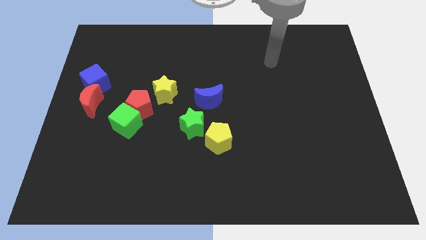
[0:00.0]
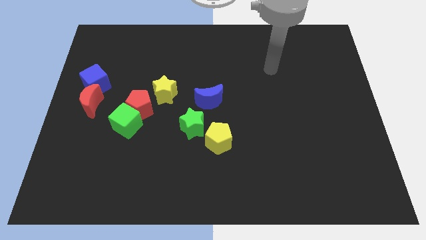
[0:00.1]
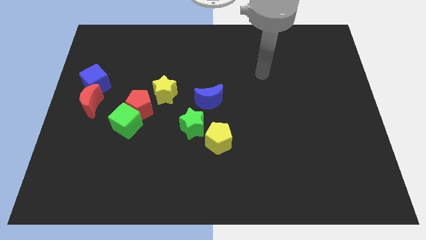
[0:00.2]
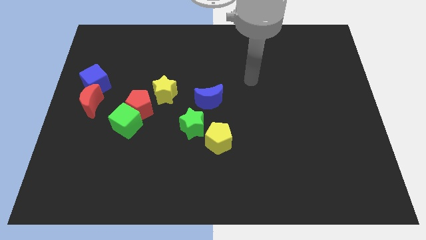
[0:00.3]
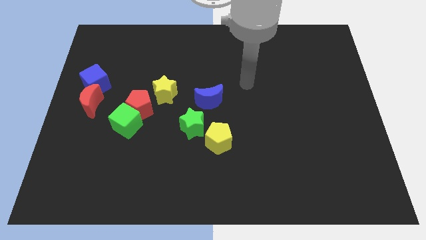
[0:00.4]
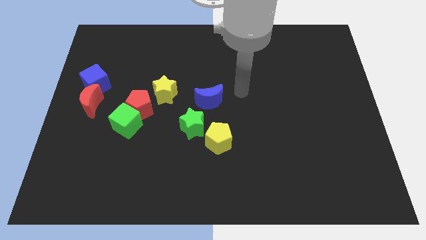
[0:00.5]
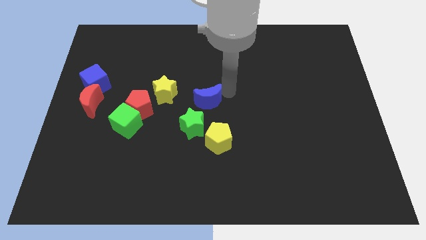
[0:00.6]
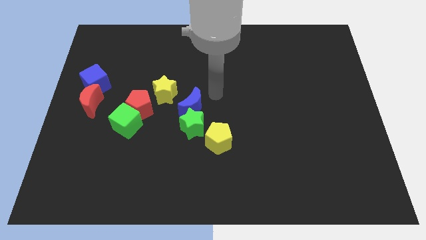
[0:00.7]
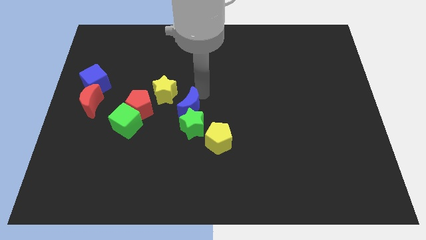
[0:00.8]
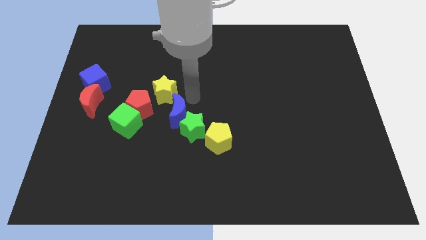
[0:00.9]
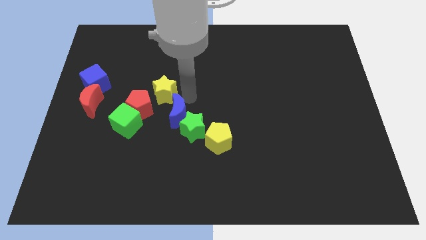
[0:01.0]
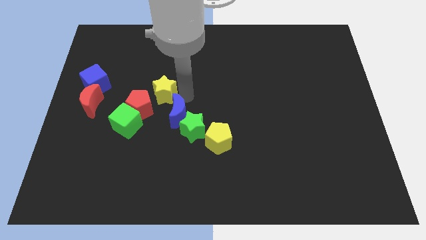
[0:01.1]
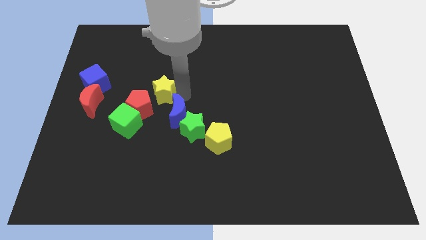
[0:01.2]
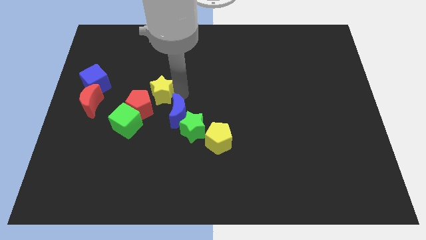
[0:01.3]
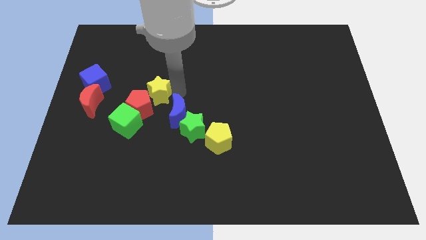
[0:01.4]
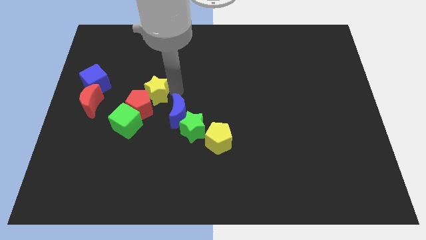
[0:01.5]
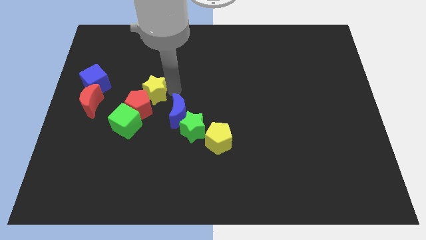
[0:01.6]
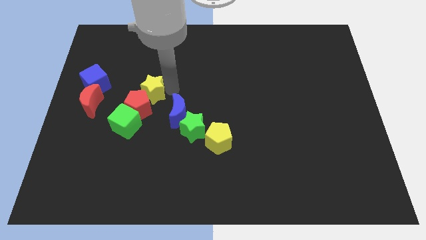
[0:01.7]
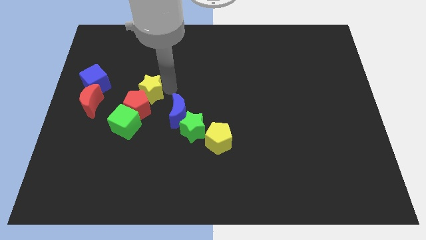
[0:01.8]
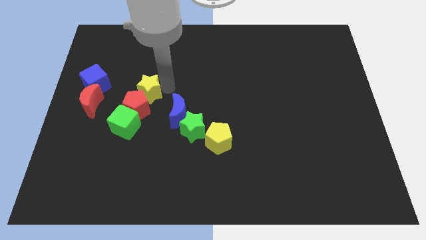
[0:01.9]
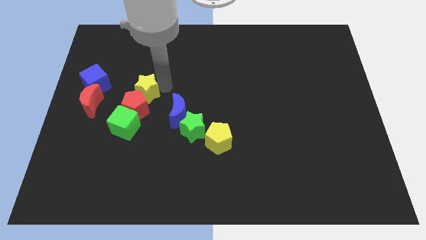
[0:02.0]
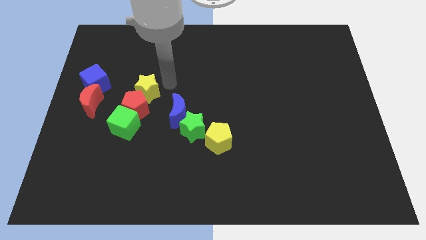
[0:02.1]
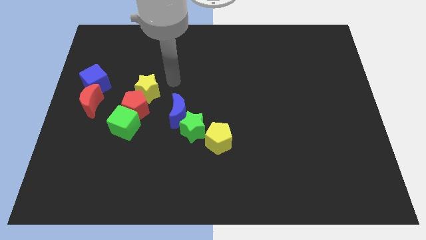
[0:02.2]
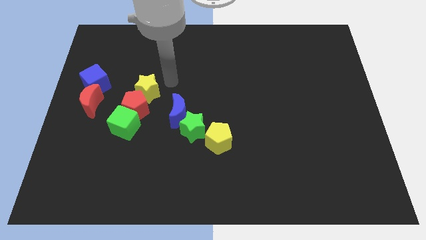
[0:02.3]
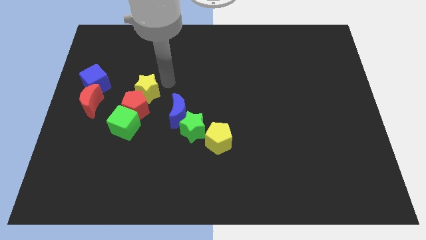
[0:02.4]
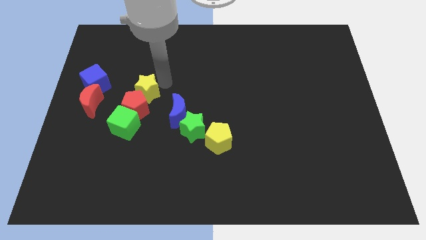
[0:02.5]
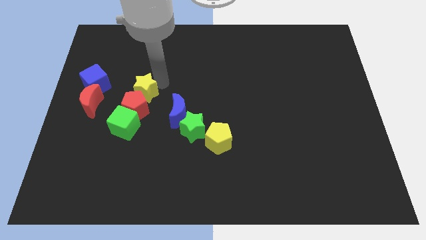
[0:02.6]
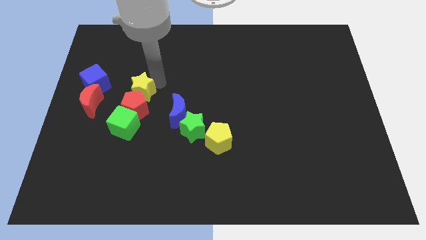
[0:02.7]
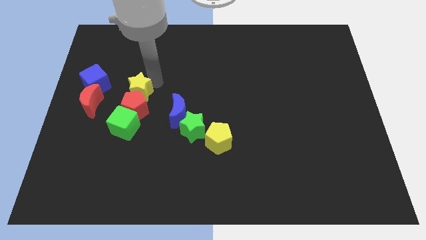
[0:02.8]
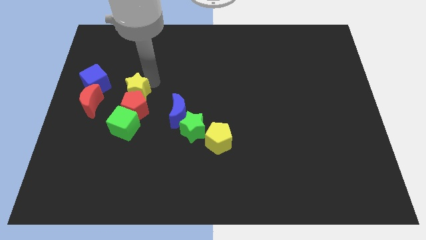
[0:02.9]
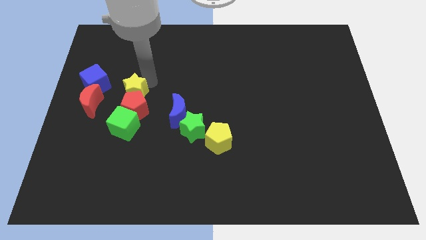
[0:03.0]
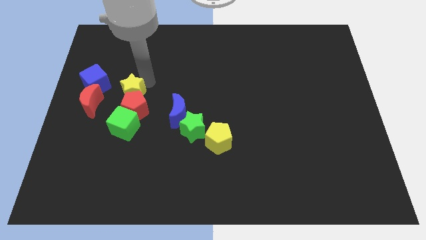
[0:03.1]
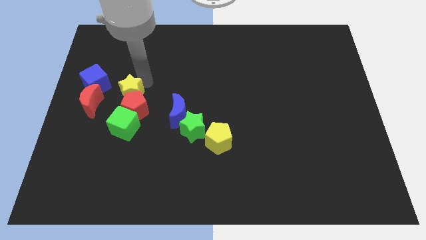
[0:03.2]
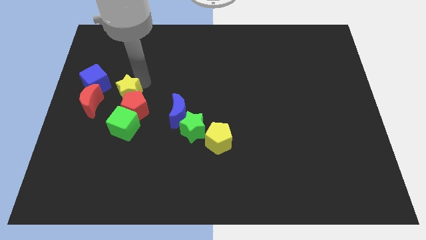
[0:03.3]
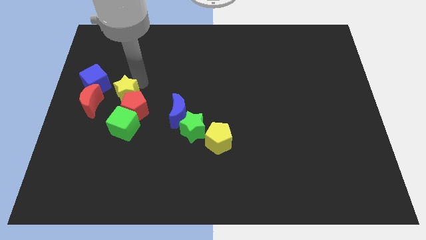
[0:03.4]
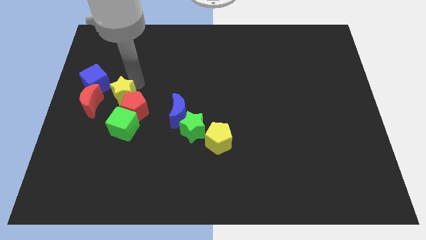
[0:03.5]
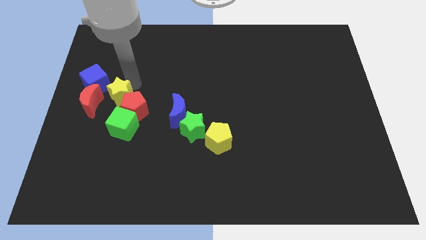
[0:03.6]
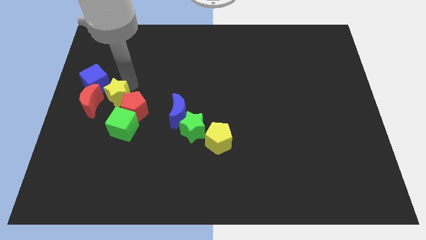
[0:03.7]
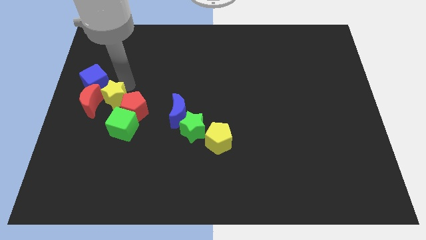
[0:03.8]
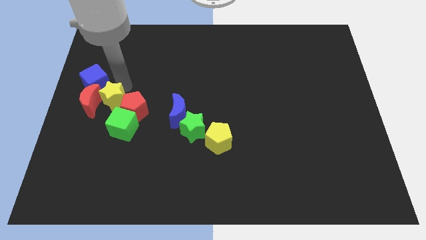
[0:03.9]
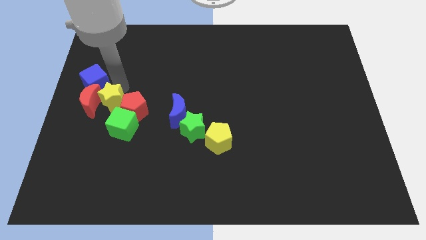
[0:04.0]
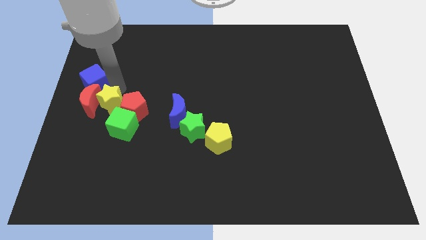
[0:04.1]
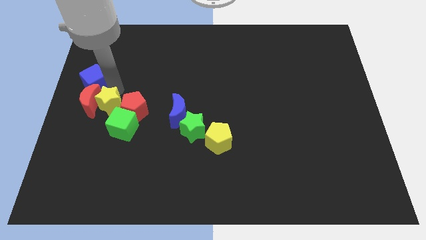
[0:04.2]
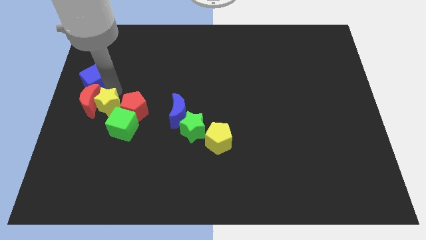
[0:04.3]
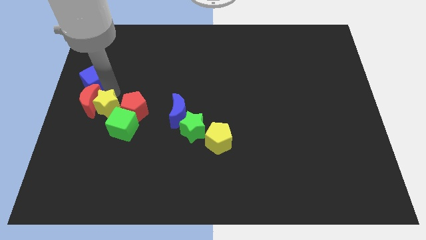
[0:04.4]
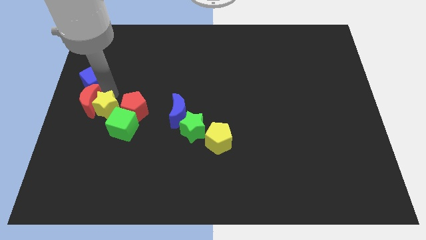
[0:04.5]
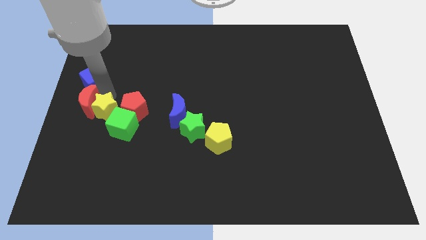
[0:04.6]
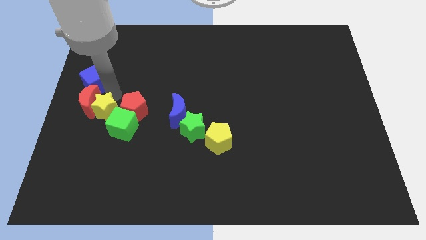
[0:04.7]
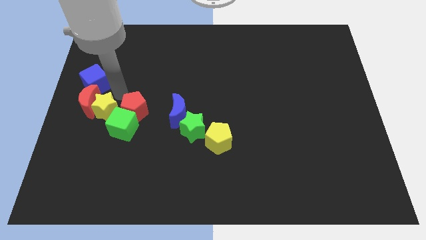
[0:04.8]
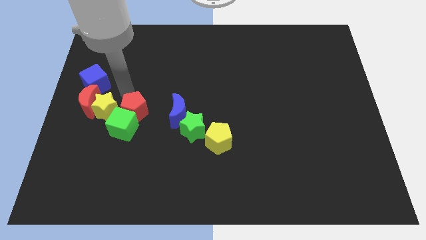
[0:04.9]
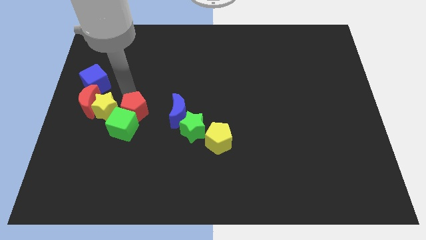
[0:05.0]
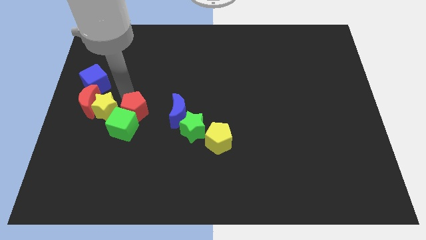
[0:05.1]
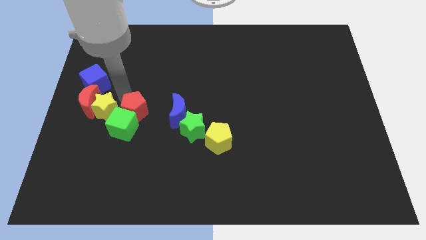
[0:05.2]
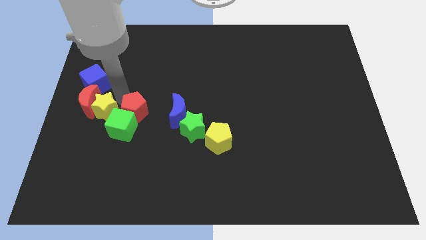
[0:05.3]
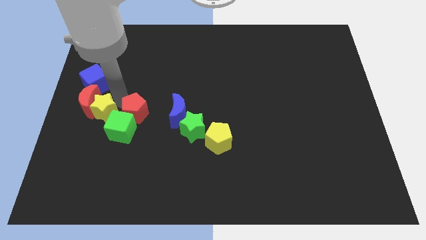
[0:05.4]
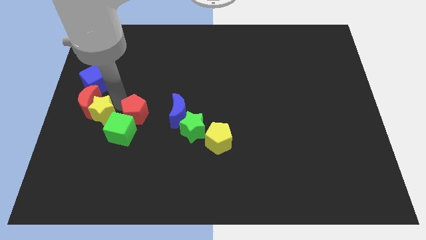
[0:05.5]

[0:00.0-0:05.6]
put the yellow star to the center left

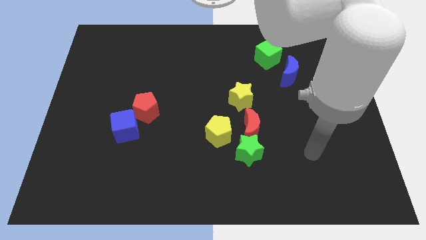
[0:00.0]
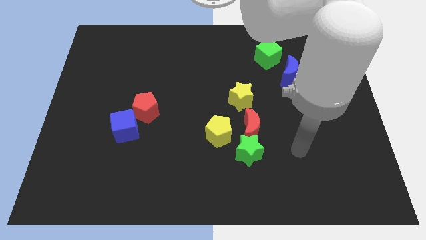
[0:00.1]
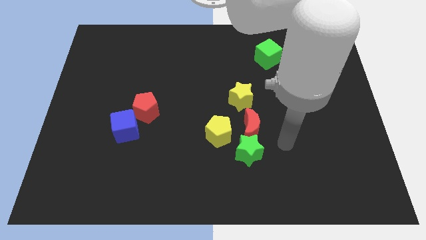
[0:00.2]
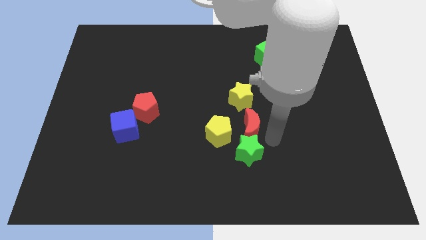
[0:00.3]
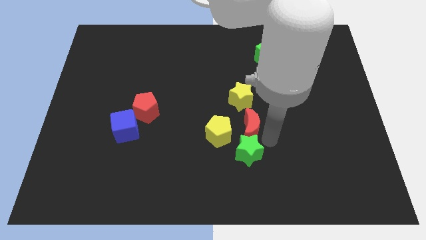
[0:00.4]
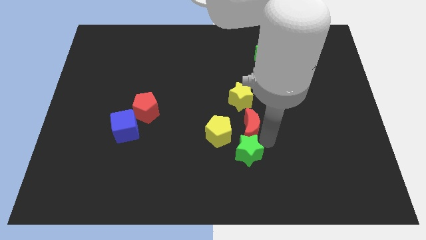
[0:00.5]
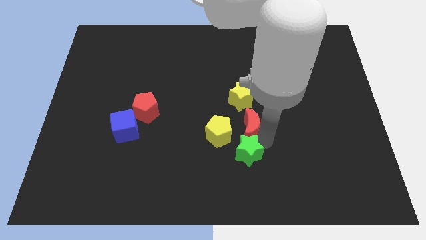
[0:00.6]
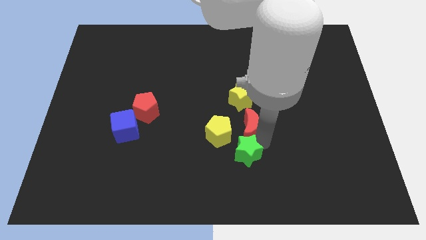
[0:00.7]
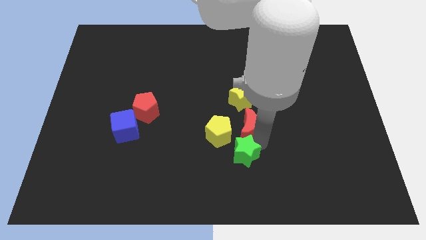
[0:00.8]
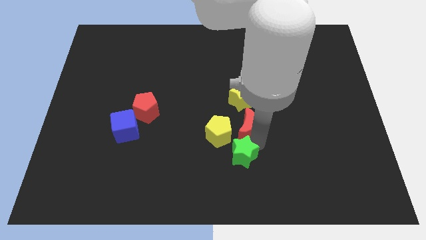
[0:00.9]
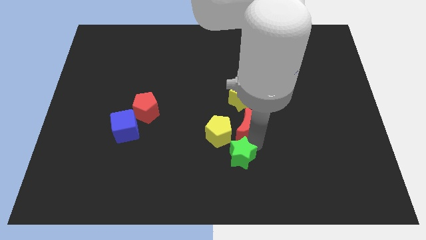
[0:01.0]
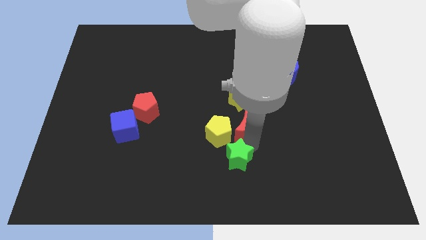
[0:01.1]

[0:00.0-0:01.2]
move the green star to the bottom side
